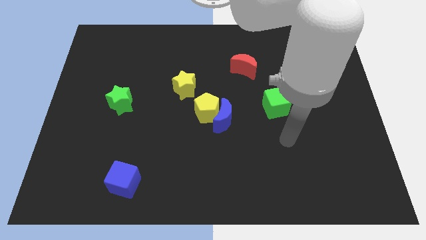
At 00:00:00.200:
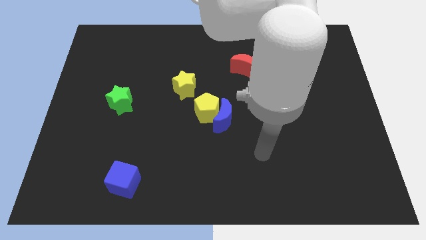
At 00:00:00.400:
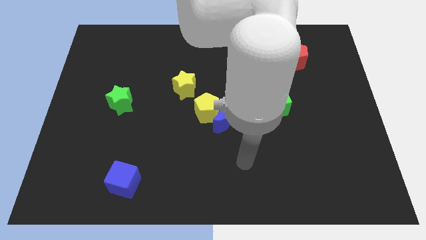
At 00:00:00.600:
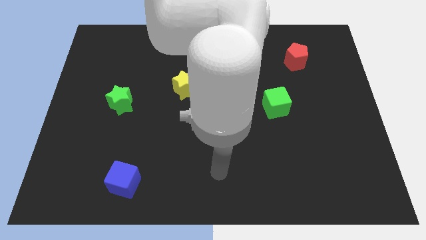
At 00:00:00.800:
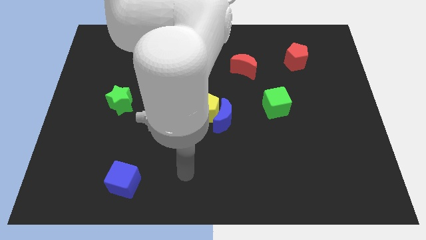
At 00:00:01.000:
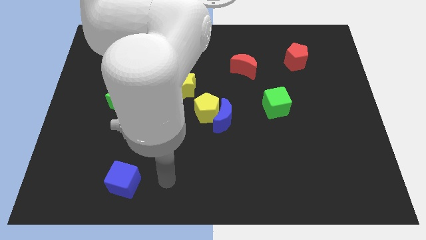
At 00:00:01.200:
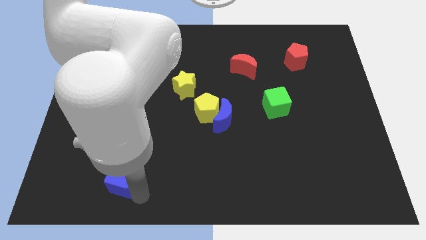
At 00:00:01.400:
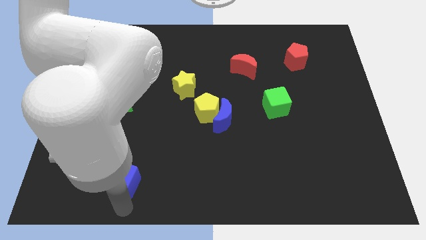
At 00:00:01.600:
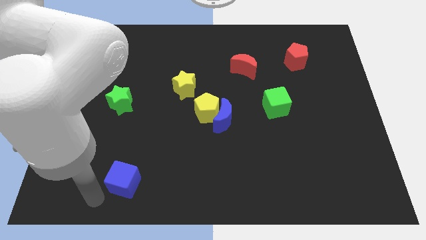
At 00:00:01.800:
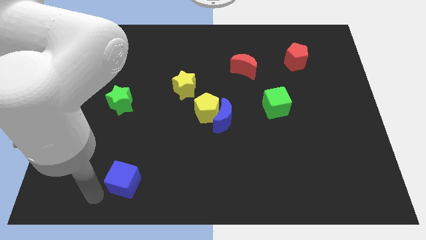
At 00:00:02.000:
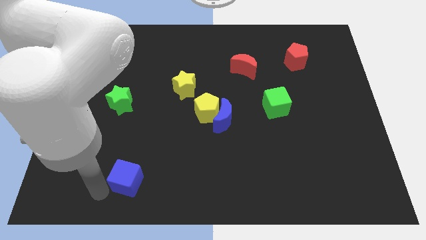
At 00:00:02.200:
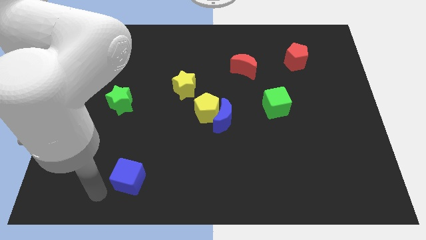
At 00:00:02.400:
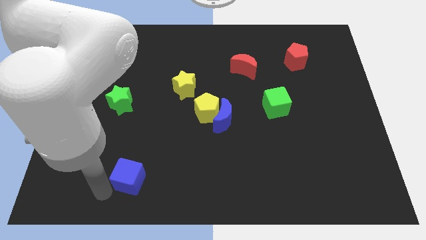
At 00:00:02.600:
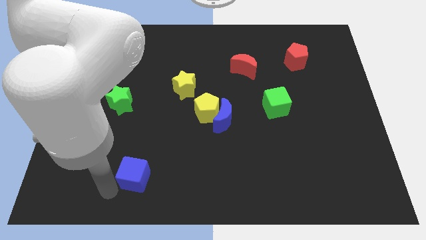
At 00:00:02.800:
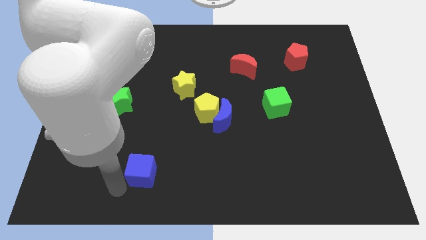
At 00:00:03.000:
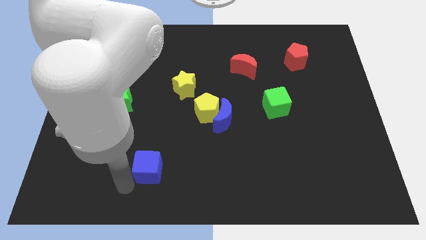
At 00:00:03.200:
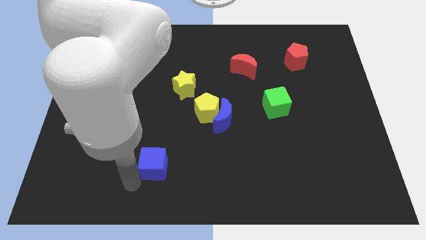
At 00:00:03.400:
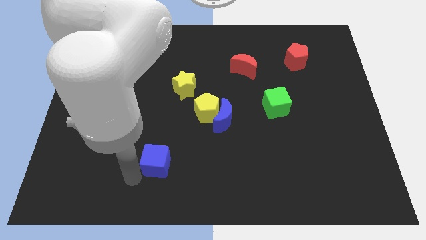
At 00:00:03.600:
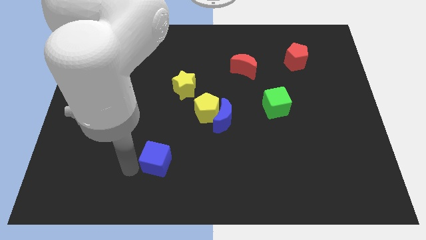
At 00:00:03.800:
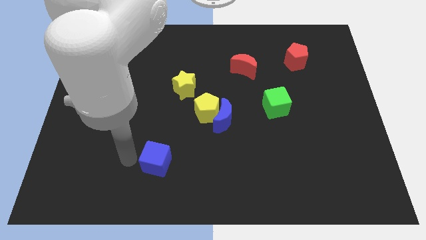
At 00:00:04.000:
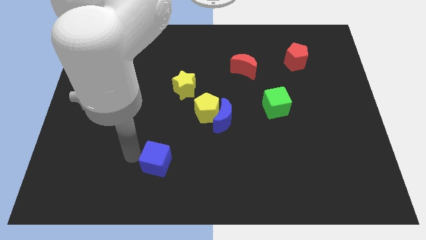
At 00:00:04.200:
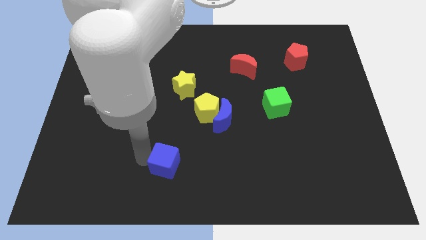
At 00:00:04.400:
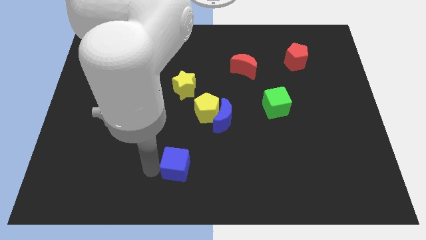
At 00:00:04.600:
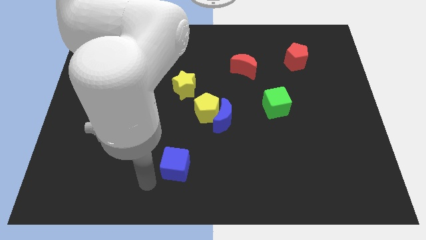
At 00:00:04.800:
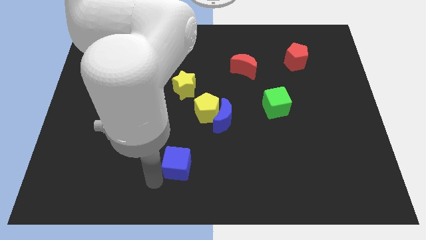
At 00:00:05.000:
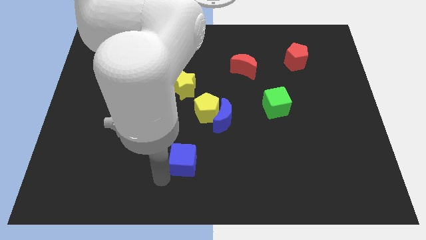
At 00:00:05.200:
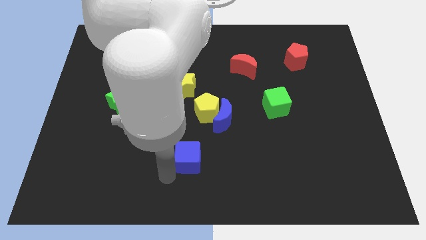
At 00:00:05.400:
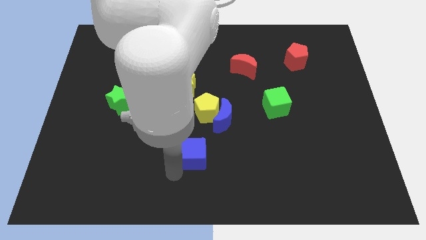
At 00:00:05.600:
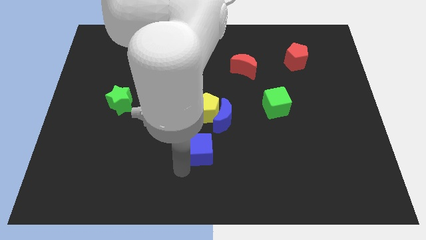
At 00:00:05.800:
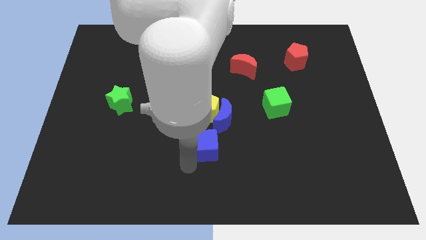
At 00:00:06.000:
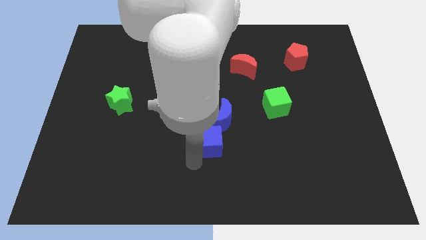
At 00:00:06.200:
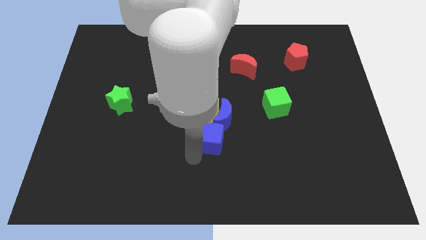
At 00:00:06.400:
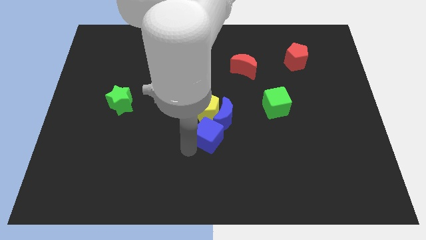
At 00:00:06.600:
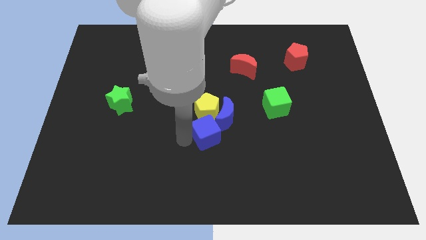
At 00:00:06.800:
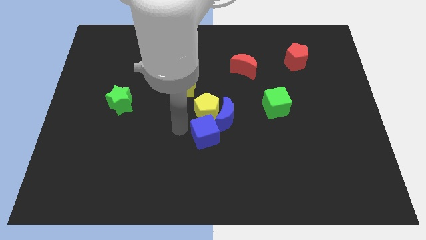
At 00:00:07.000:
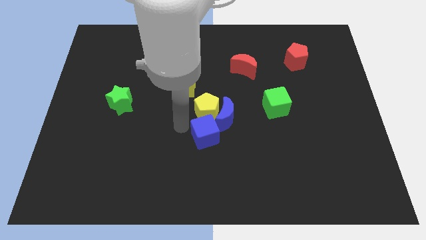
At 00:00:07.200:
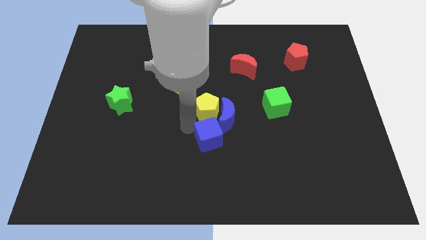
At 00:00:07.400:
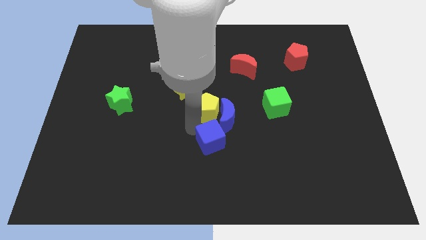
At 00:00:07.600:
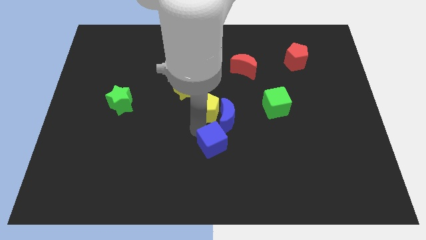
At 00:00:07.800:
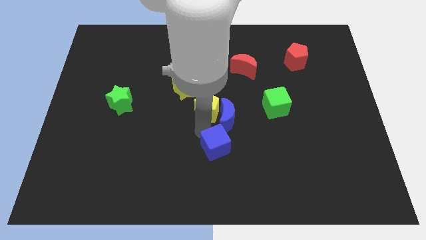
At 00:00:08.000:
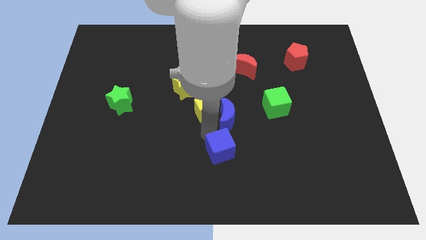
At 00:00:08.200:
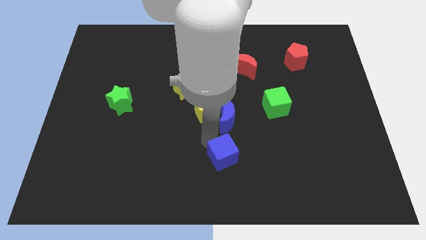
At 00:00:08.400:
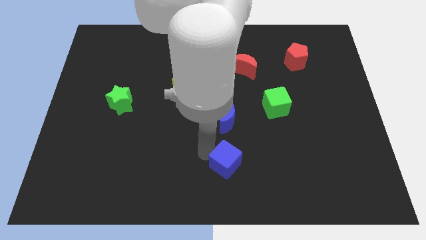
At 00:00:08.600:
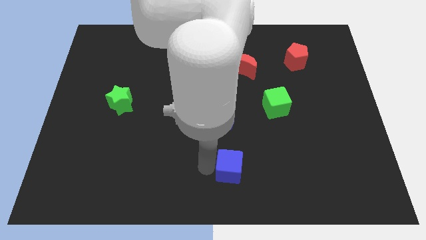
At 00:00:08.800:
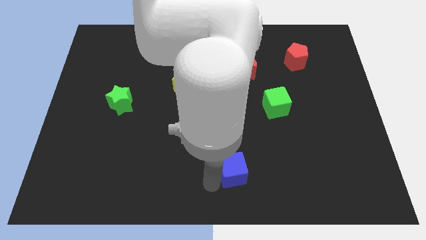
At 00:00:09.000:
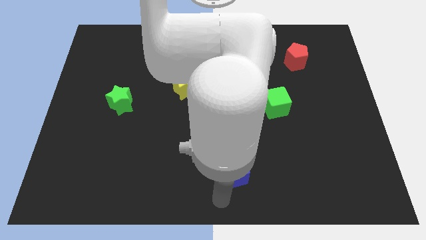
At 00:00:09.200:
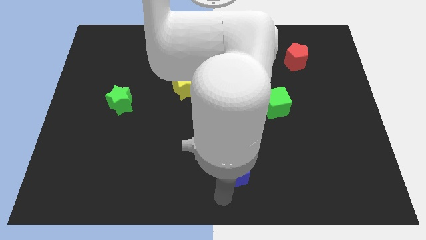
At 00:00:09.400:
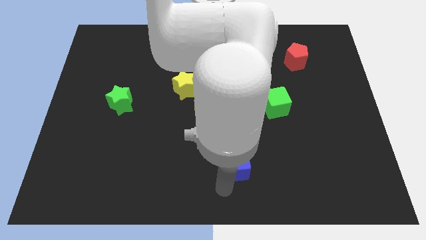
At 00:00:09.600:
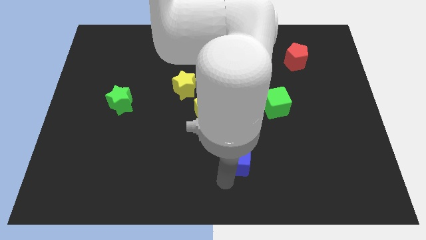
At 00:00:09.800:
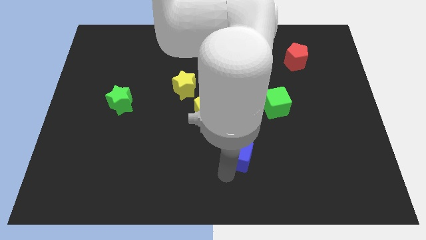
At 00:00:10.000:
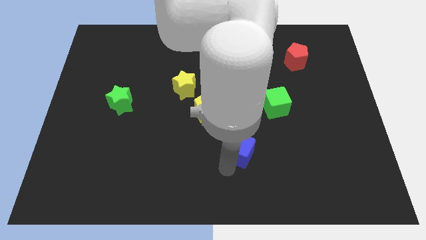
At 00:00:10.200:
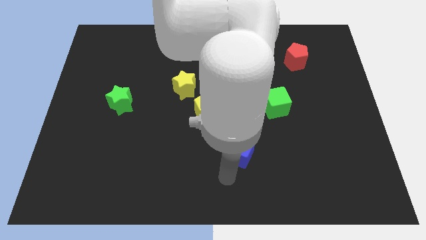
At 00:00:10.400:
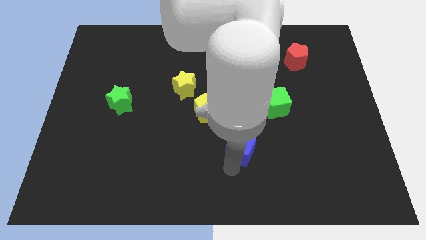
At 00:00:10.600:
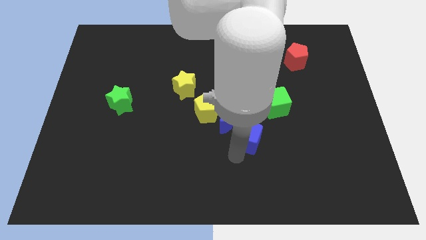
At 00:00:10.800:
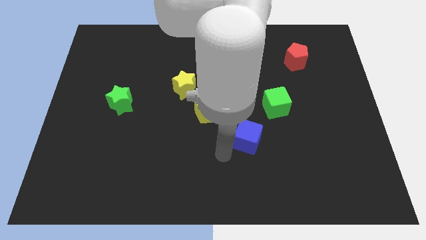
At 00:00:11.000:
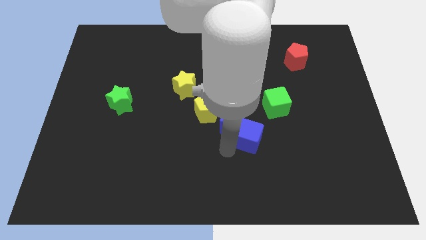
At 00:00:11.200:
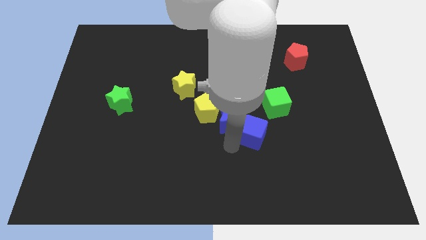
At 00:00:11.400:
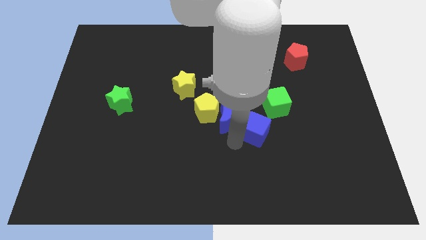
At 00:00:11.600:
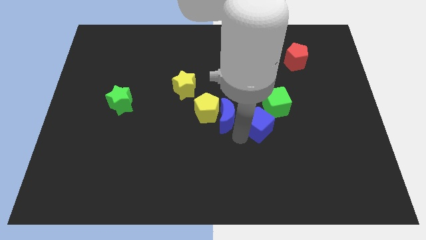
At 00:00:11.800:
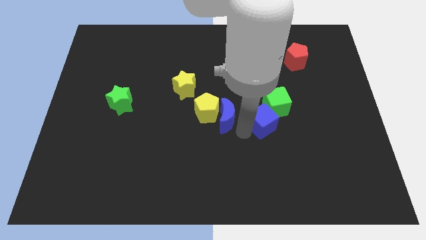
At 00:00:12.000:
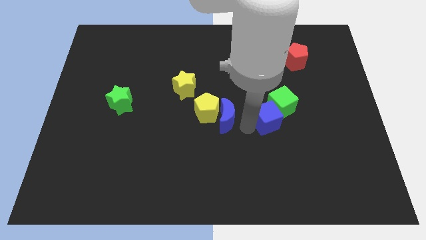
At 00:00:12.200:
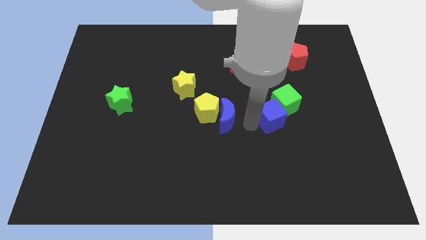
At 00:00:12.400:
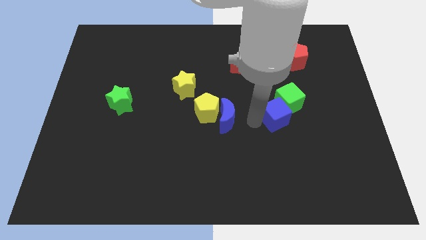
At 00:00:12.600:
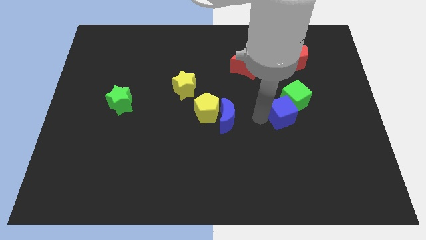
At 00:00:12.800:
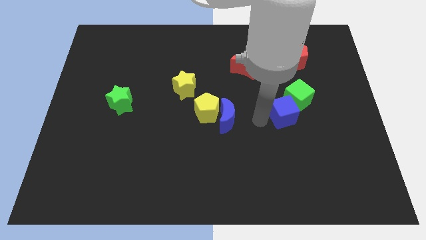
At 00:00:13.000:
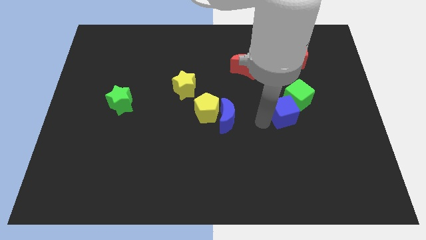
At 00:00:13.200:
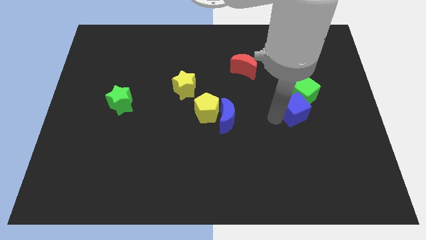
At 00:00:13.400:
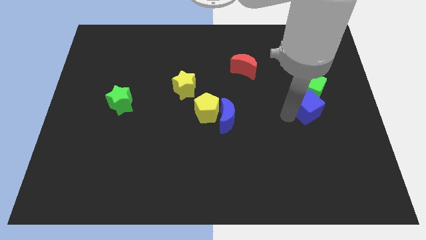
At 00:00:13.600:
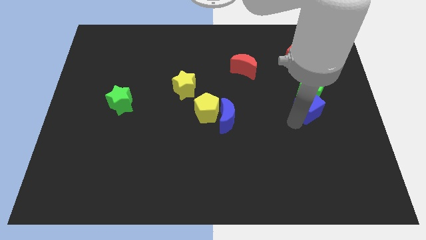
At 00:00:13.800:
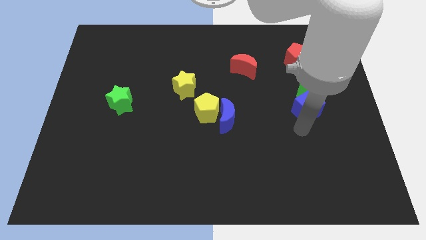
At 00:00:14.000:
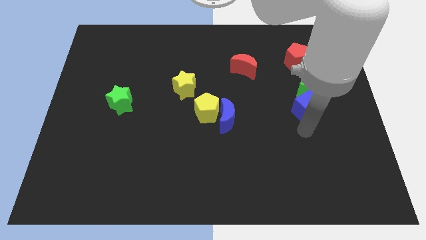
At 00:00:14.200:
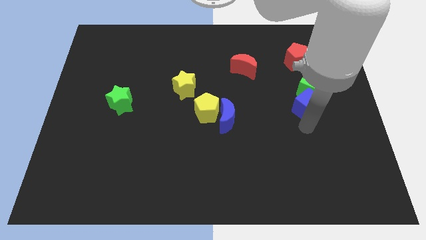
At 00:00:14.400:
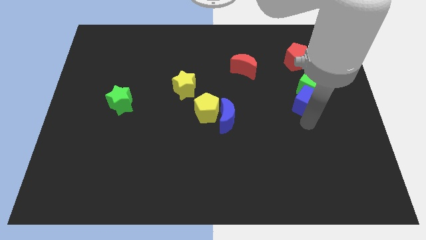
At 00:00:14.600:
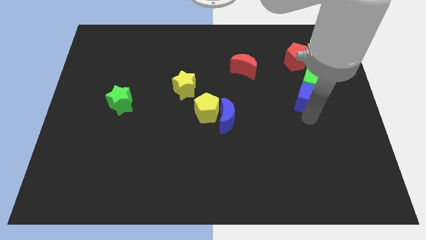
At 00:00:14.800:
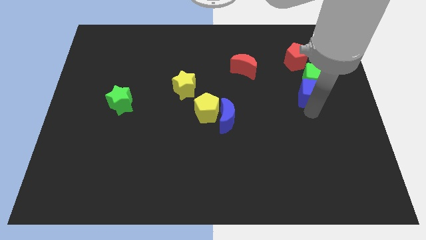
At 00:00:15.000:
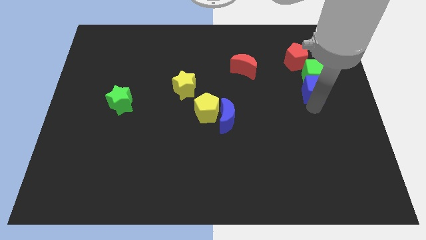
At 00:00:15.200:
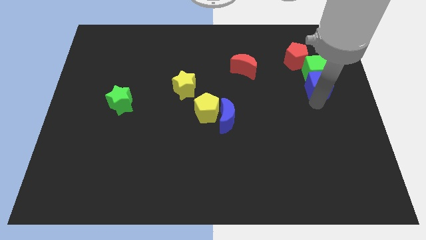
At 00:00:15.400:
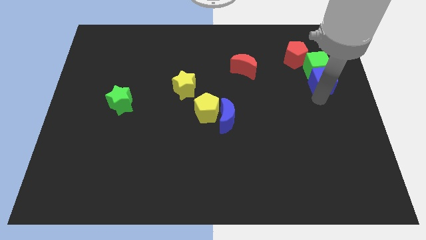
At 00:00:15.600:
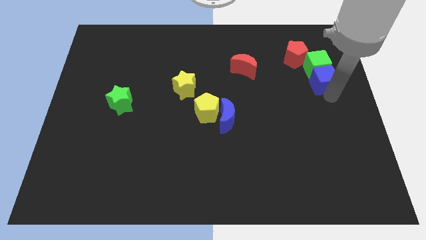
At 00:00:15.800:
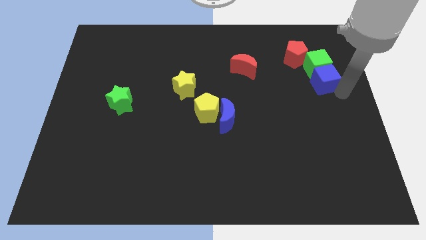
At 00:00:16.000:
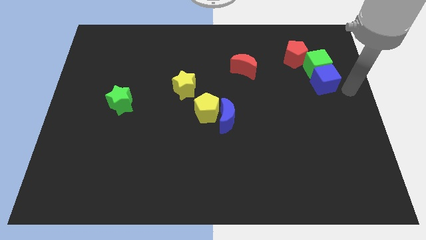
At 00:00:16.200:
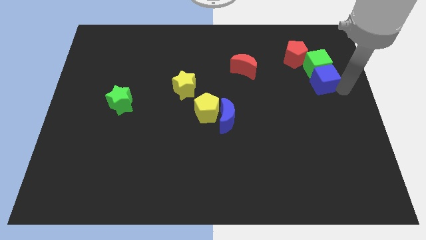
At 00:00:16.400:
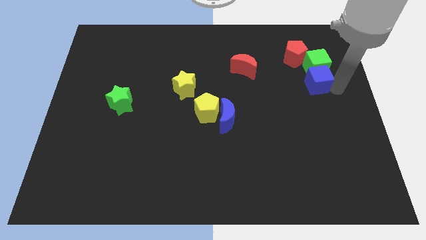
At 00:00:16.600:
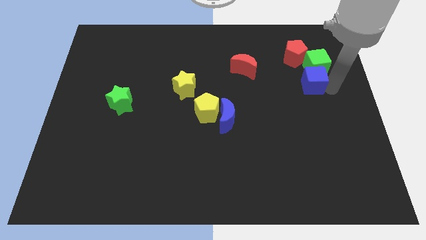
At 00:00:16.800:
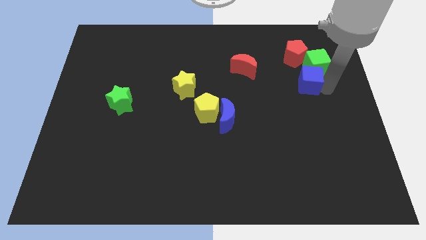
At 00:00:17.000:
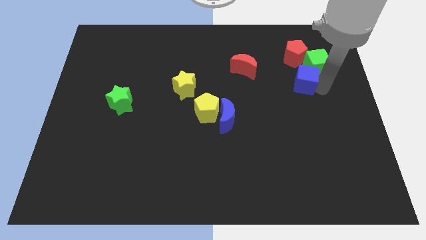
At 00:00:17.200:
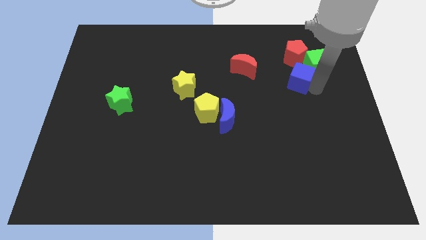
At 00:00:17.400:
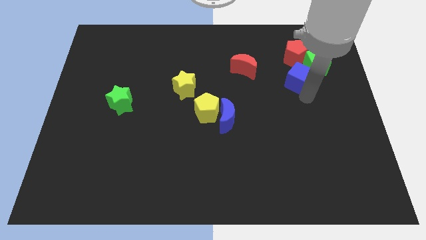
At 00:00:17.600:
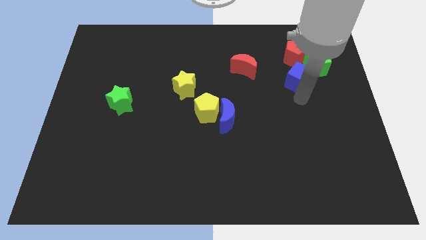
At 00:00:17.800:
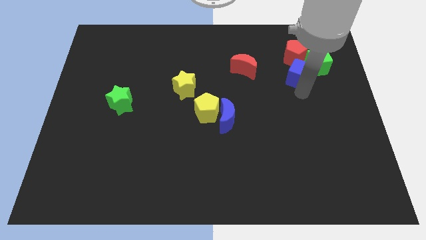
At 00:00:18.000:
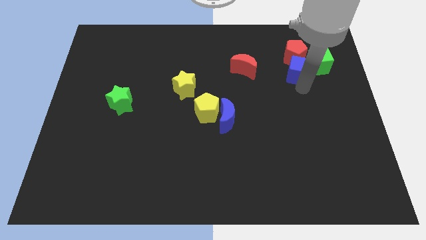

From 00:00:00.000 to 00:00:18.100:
put the blue cube close to the red pentagon
